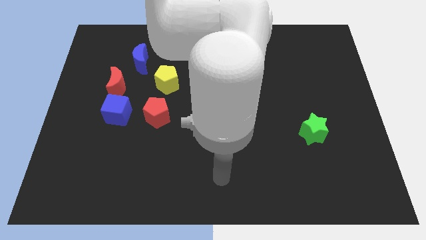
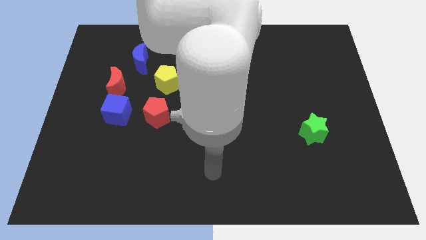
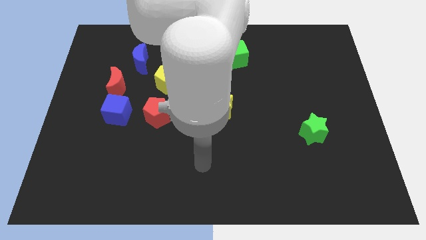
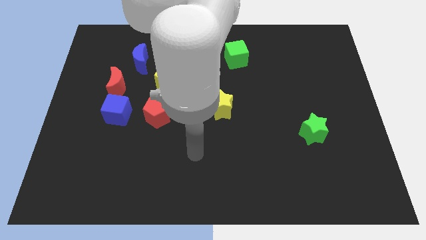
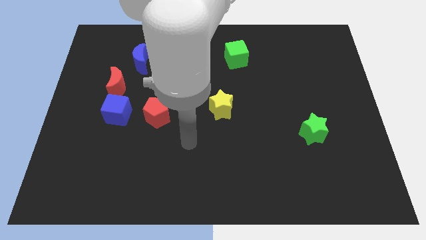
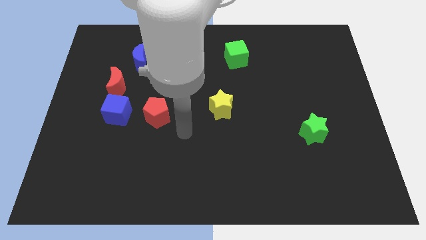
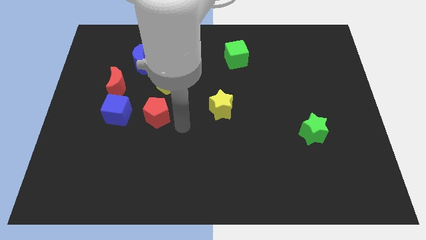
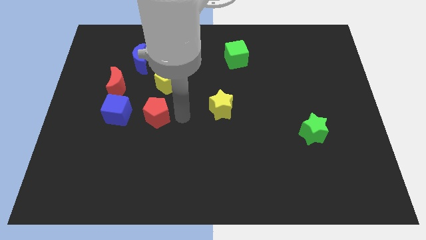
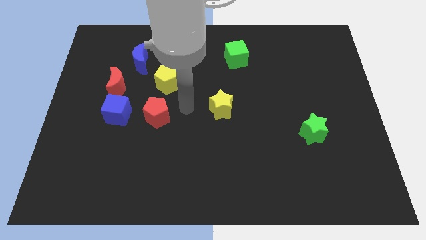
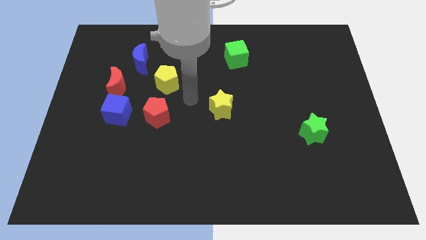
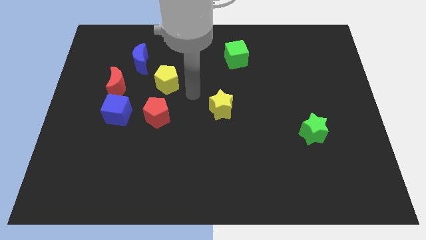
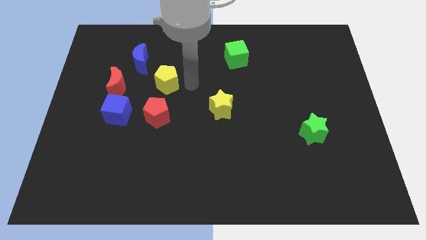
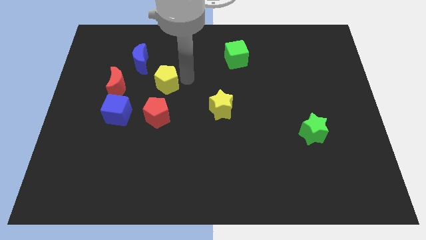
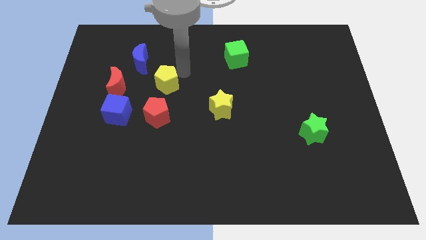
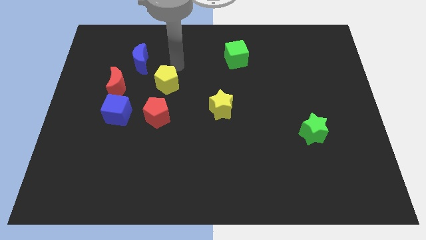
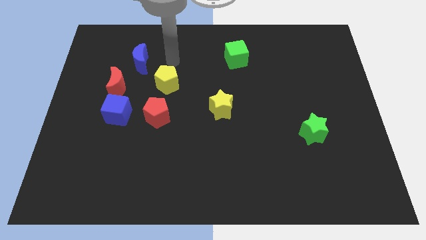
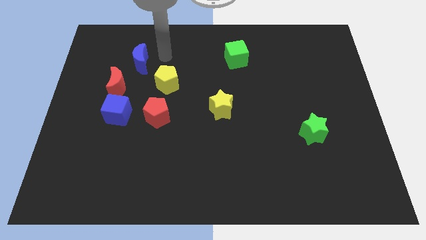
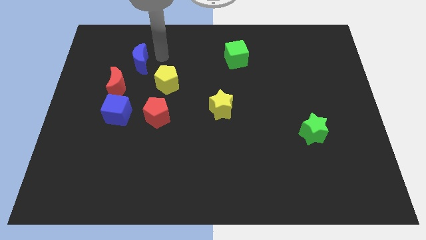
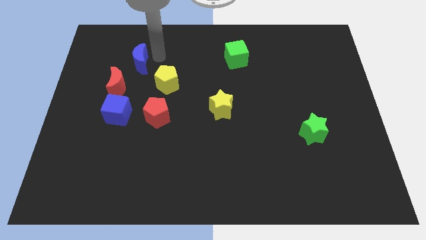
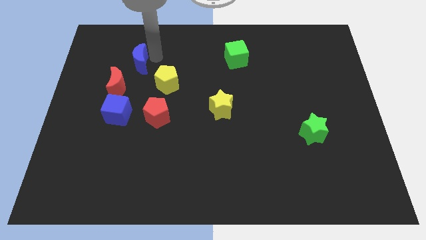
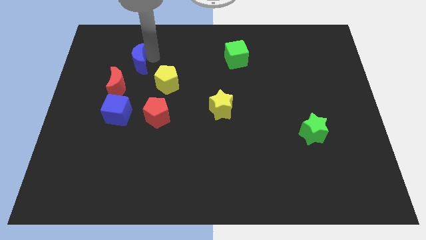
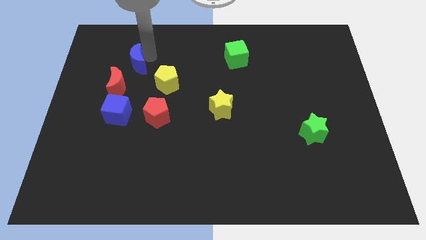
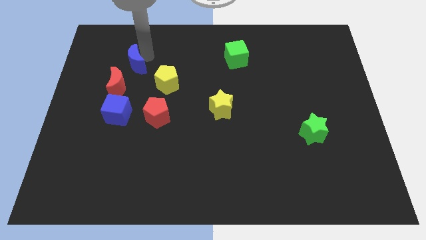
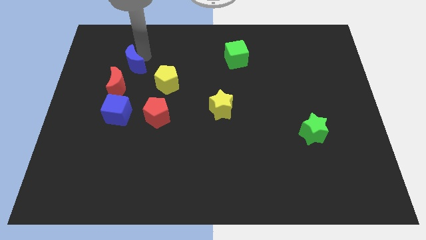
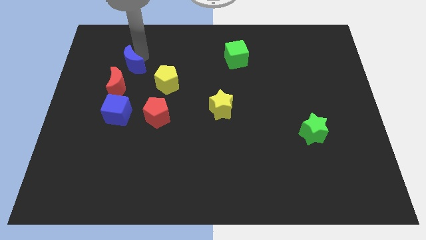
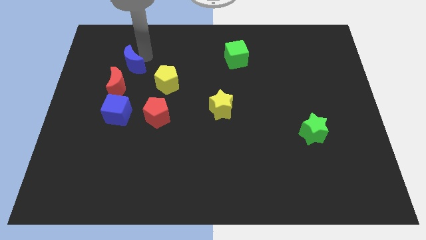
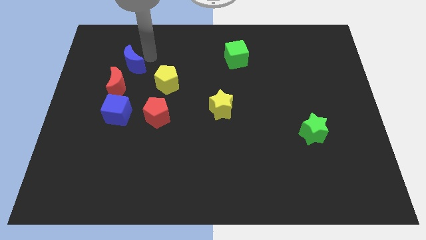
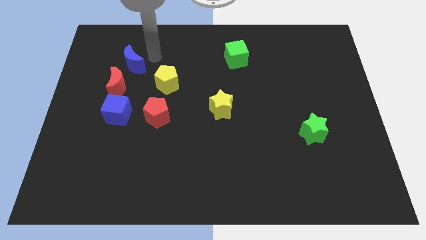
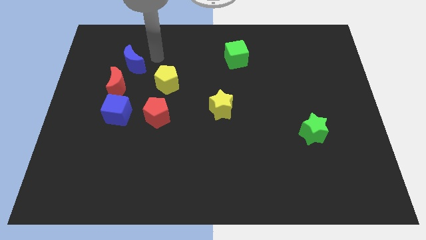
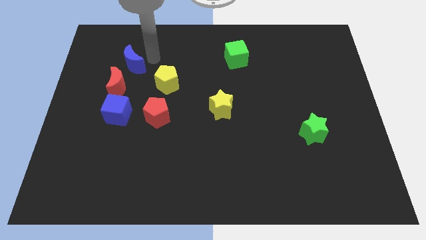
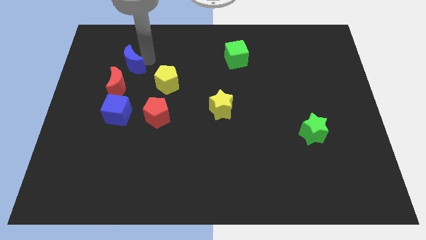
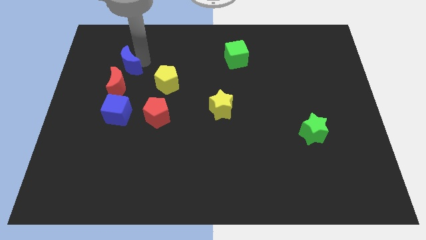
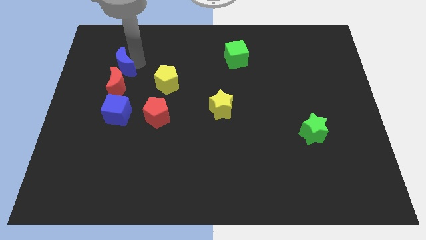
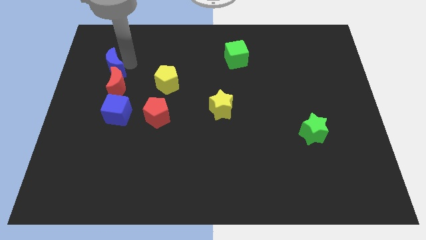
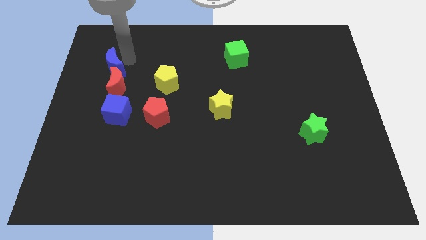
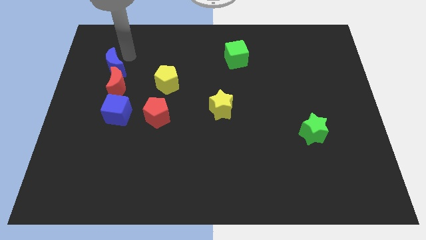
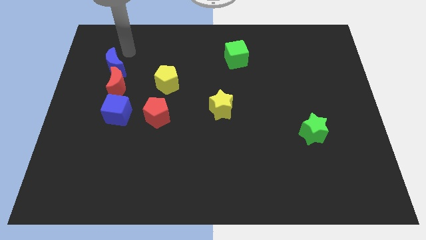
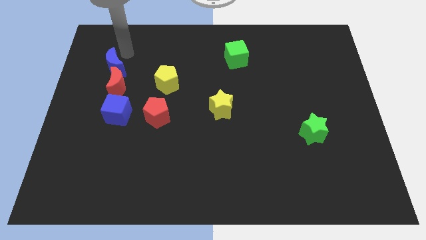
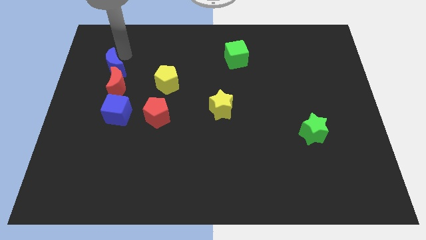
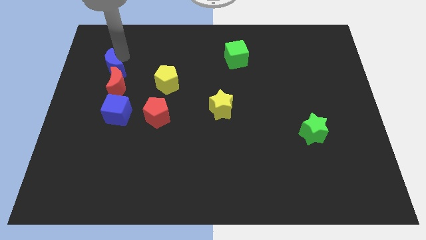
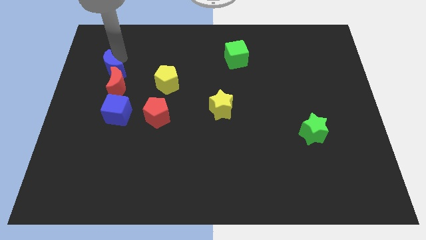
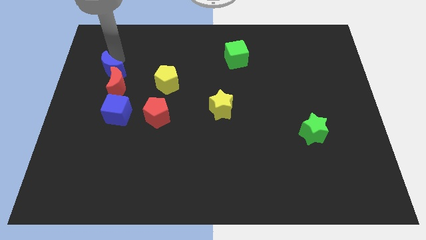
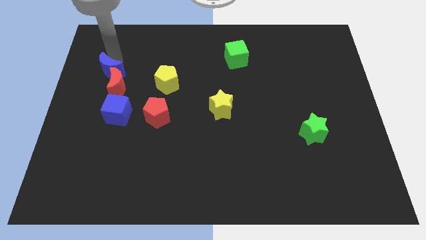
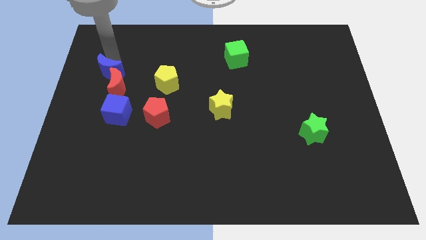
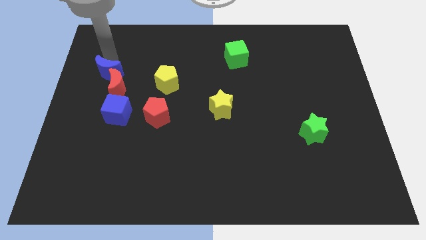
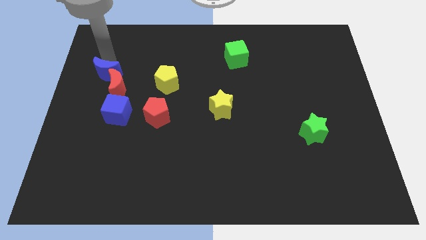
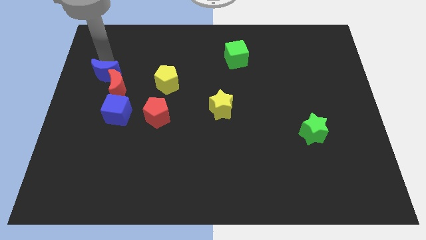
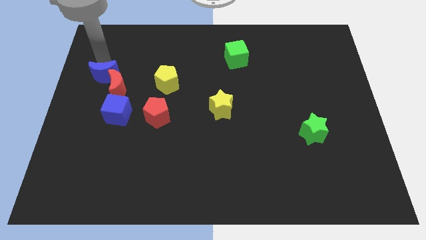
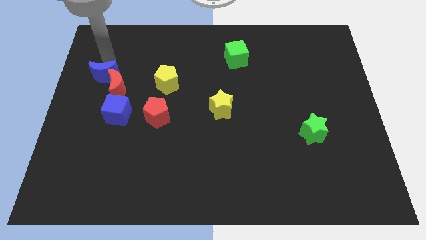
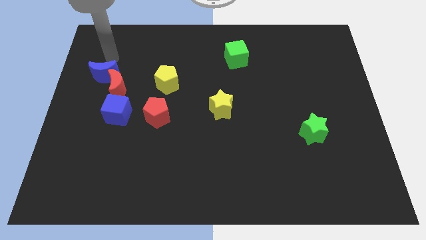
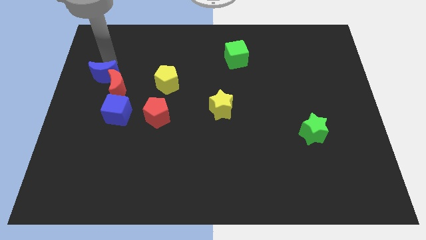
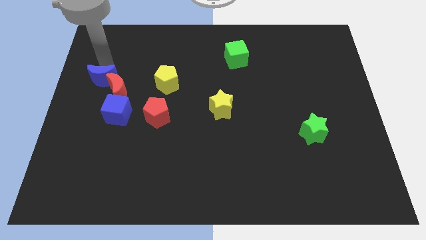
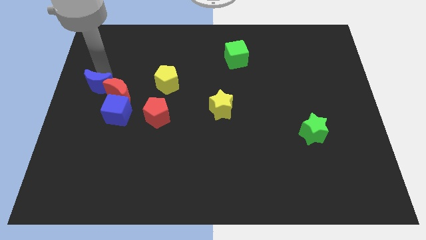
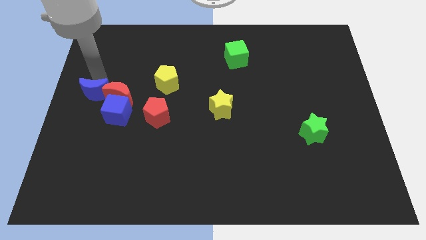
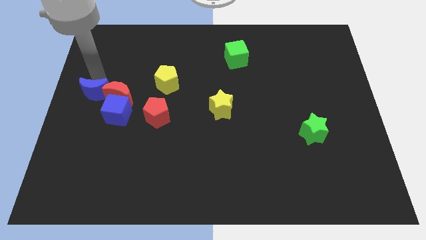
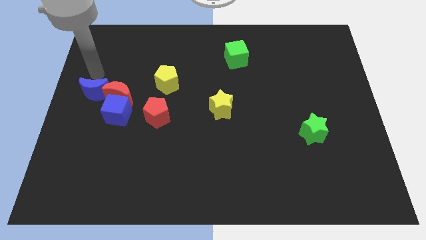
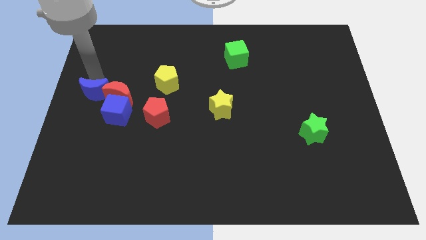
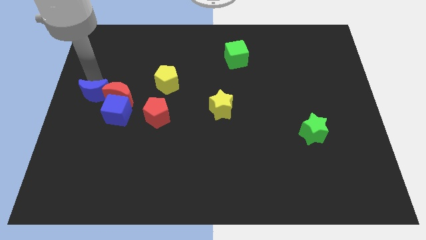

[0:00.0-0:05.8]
slide the blue moon to the bottom left of the red moon

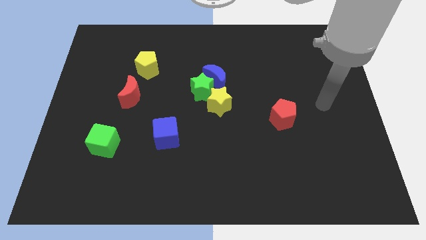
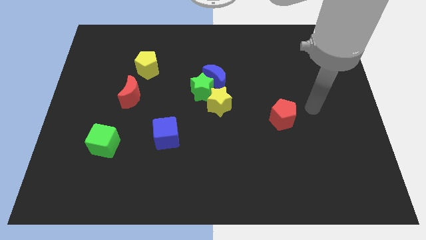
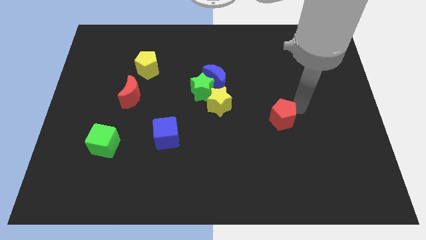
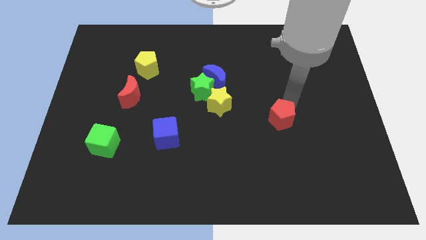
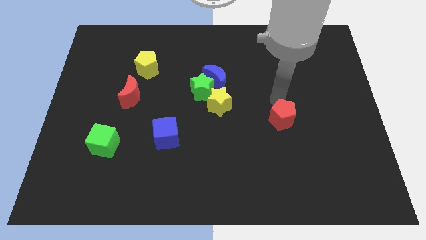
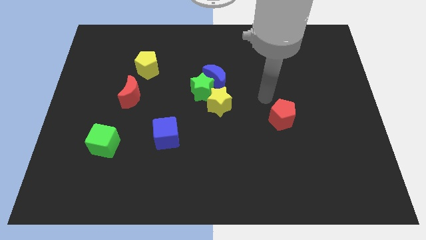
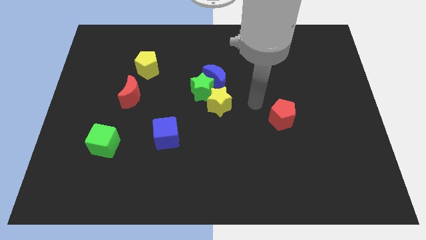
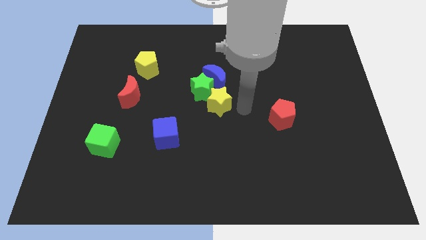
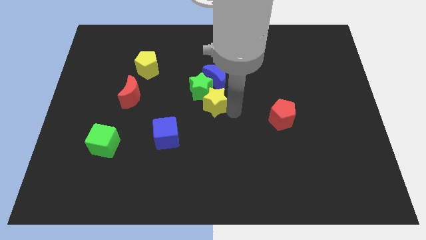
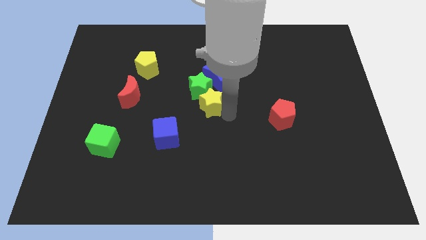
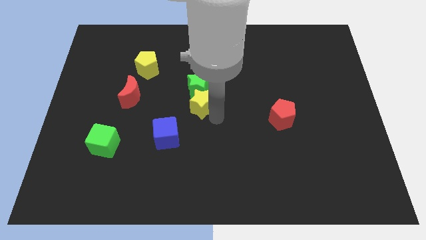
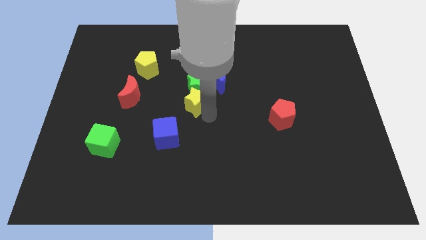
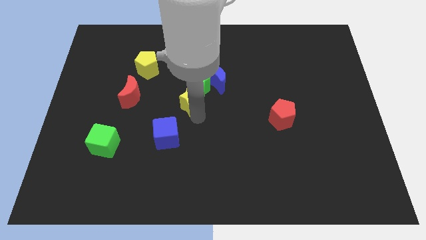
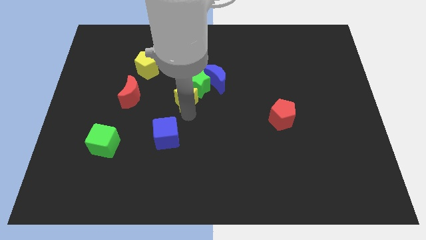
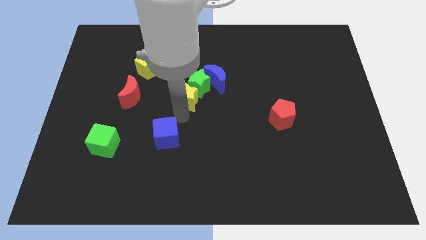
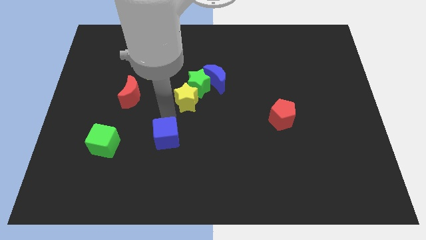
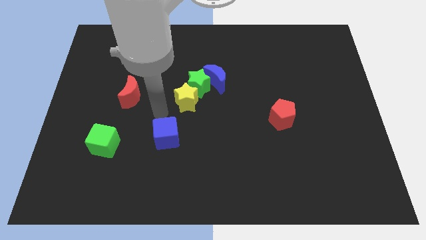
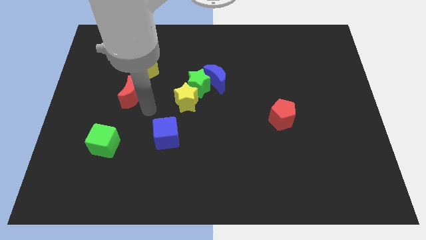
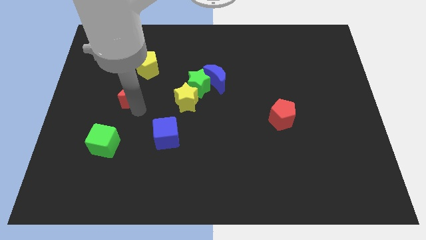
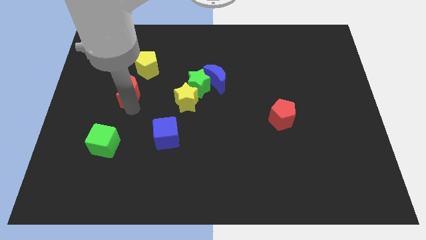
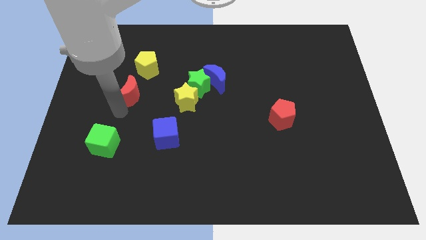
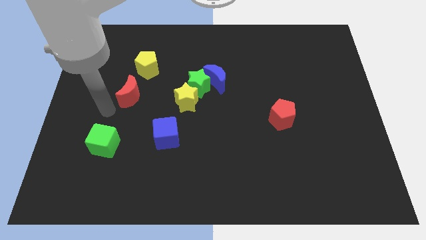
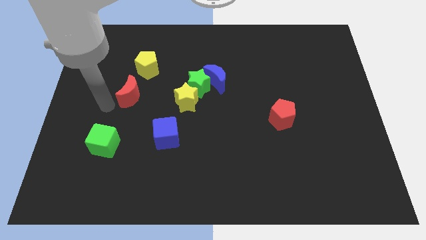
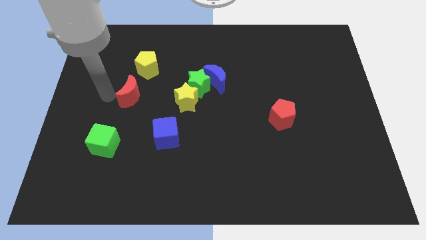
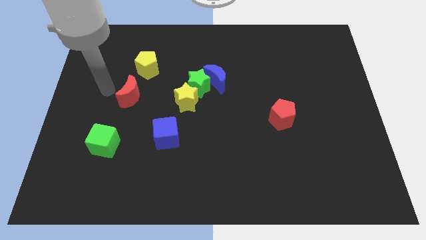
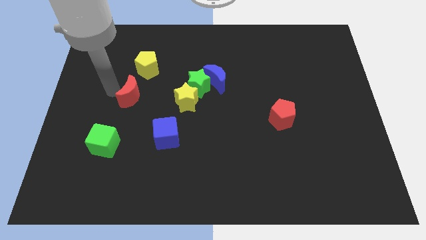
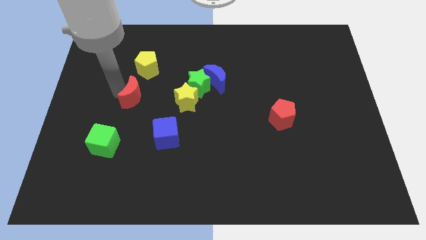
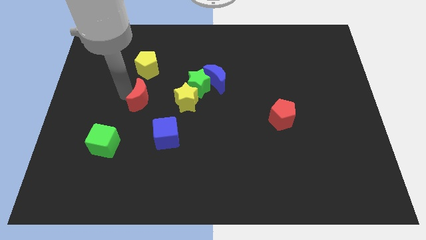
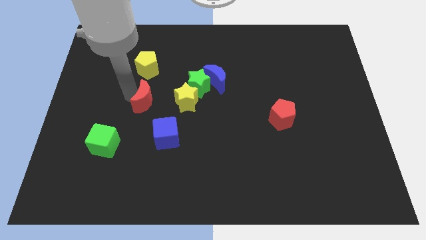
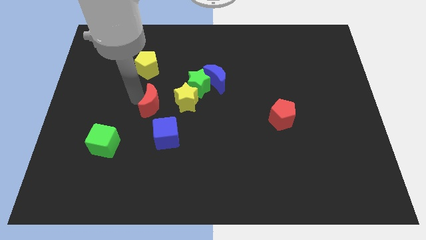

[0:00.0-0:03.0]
put the red moon above the blue cube
